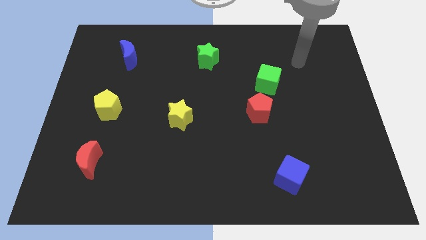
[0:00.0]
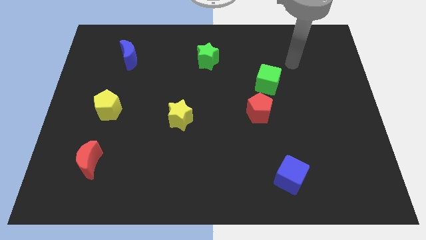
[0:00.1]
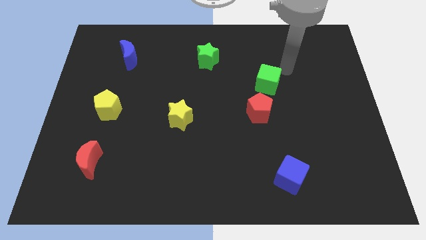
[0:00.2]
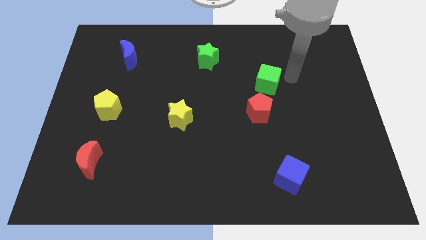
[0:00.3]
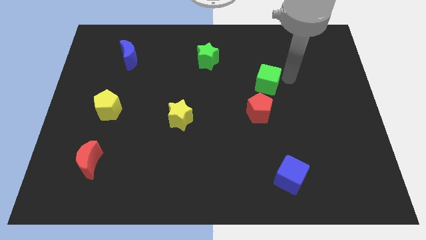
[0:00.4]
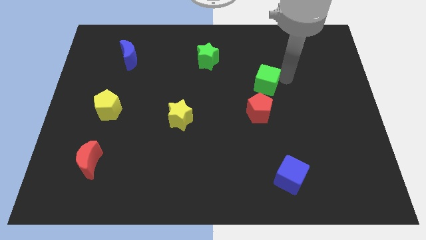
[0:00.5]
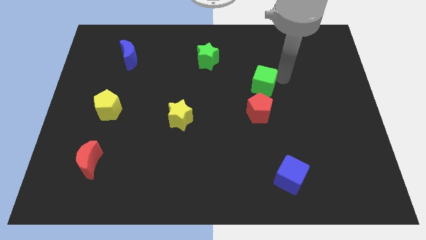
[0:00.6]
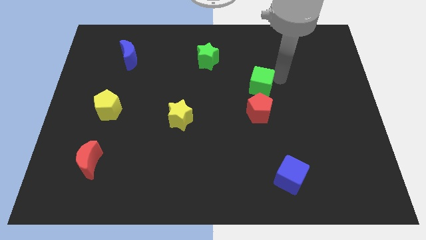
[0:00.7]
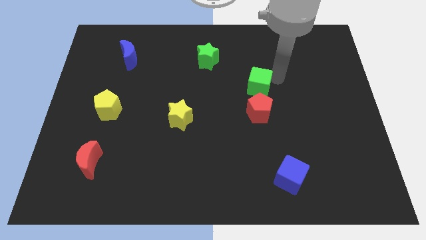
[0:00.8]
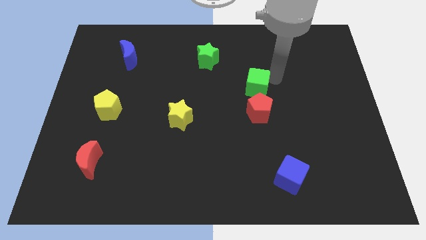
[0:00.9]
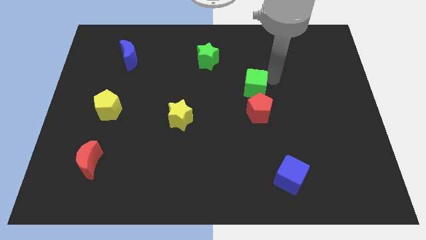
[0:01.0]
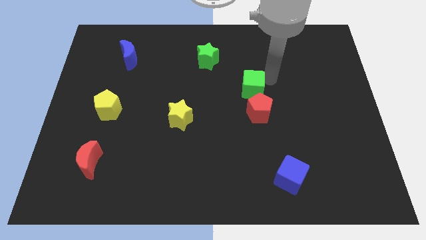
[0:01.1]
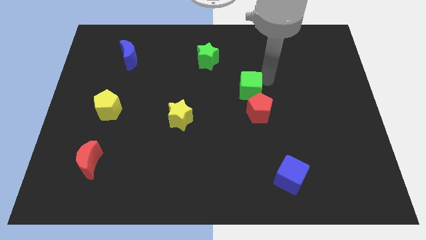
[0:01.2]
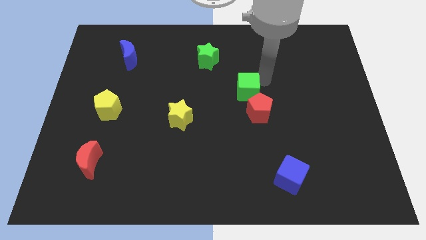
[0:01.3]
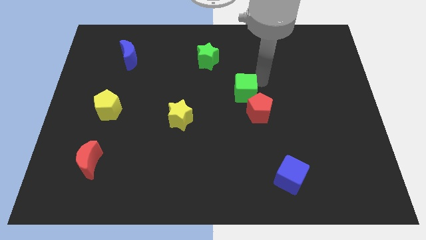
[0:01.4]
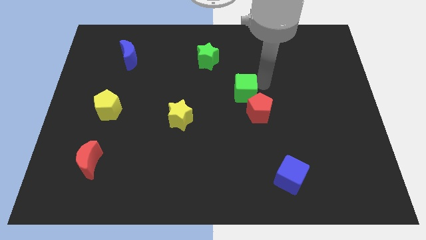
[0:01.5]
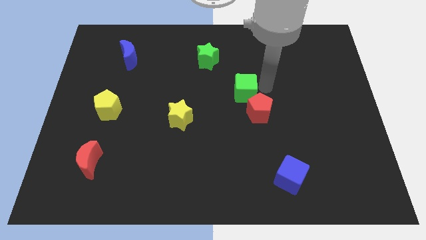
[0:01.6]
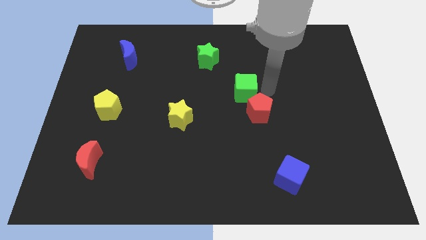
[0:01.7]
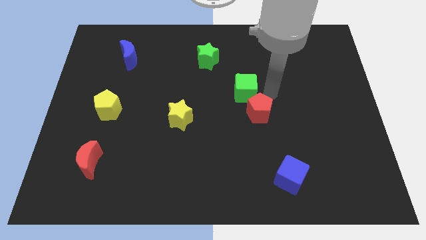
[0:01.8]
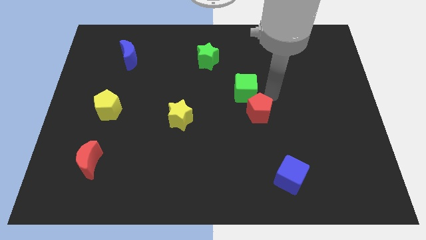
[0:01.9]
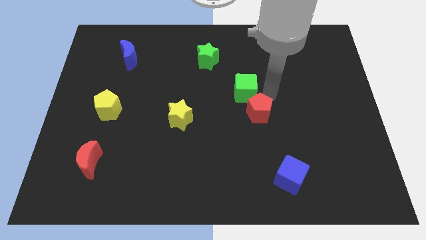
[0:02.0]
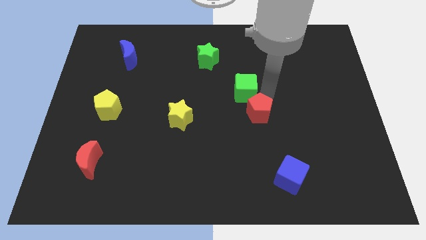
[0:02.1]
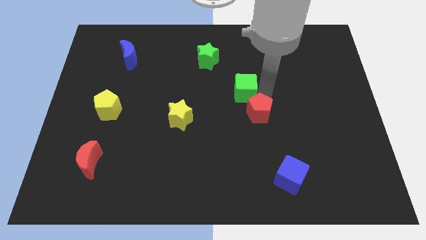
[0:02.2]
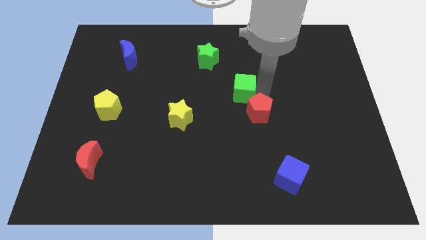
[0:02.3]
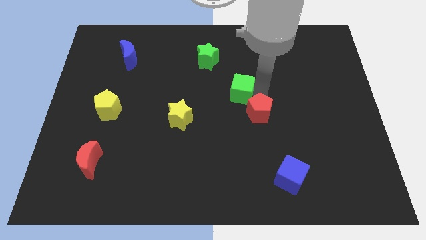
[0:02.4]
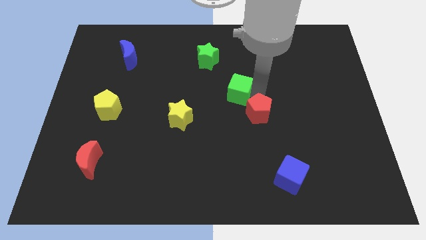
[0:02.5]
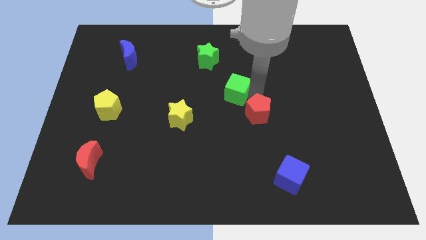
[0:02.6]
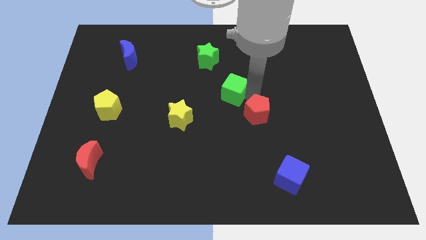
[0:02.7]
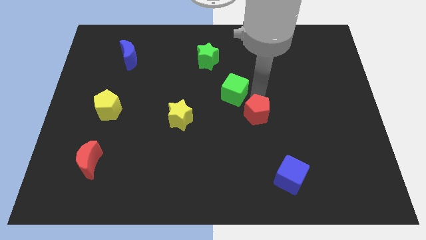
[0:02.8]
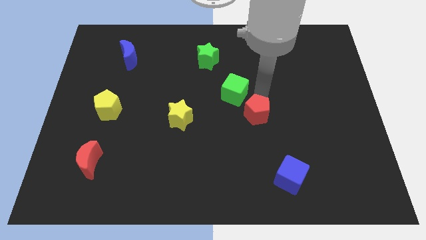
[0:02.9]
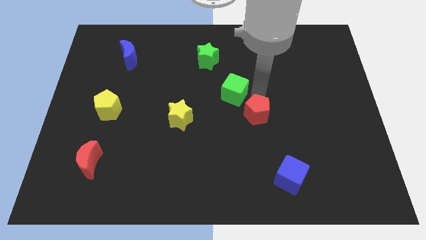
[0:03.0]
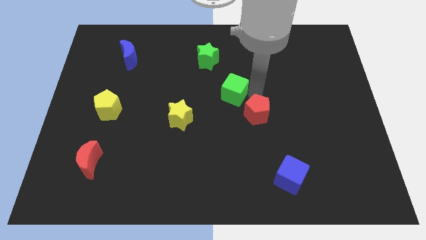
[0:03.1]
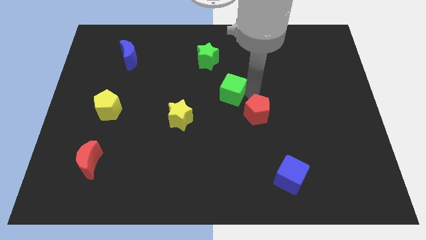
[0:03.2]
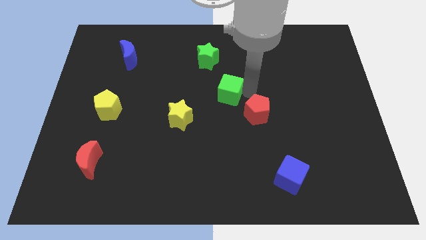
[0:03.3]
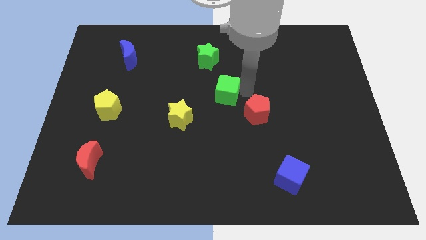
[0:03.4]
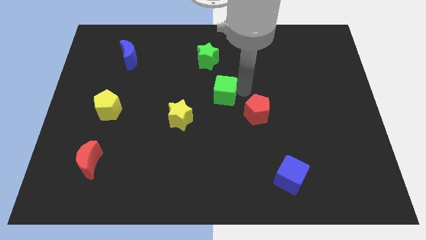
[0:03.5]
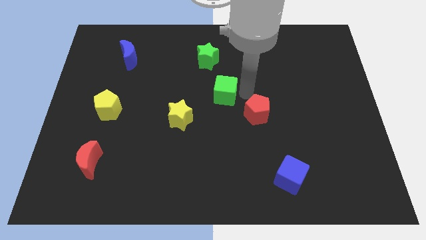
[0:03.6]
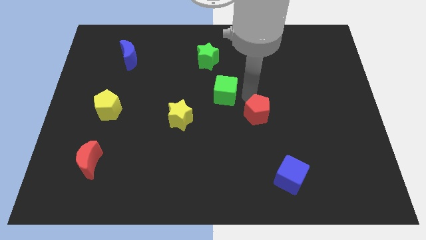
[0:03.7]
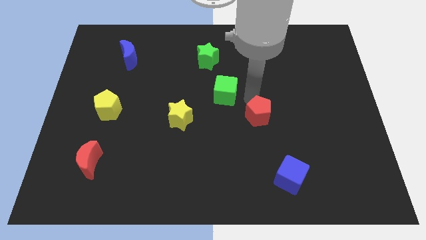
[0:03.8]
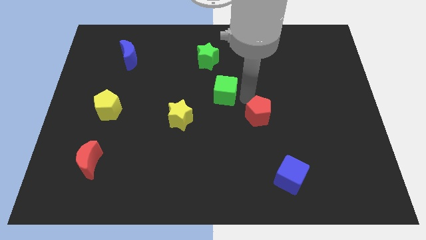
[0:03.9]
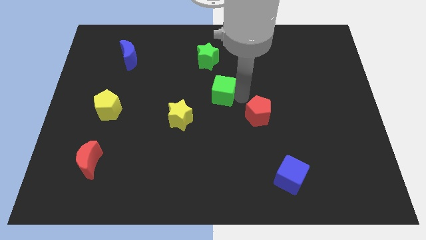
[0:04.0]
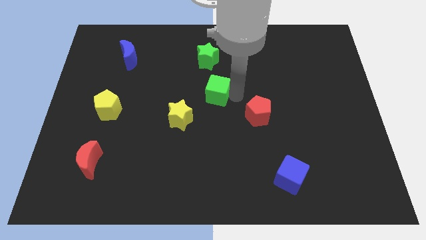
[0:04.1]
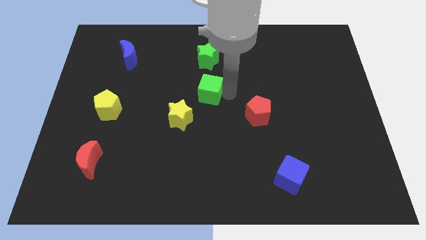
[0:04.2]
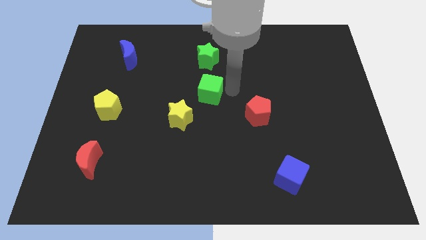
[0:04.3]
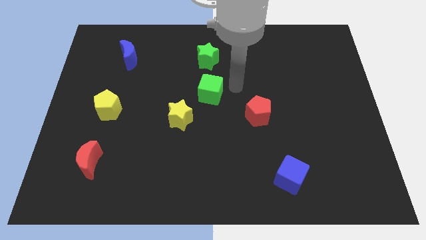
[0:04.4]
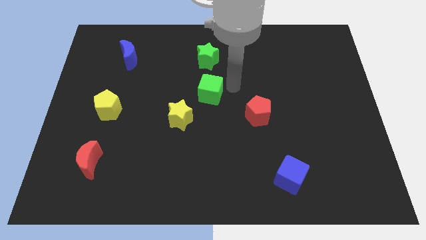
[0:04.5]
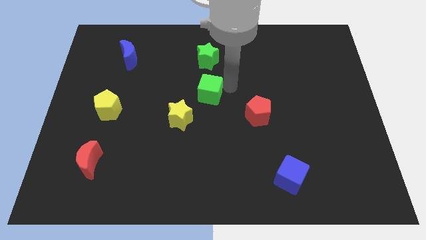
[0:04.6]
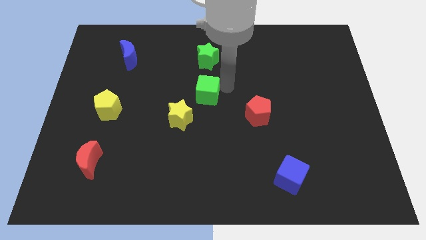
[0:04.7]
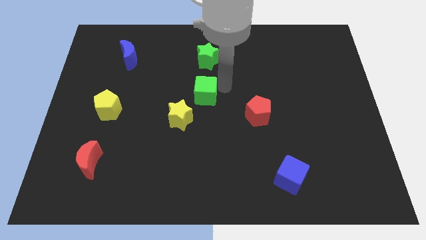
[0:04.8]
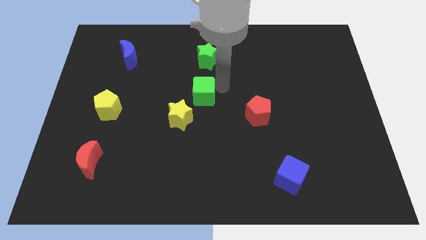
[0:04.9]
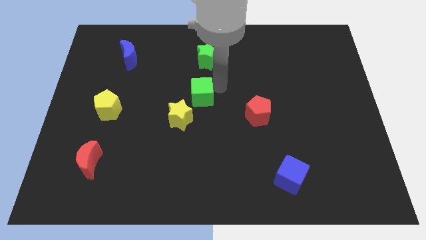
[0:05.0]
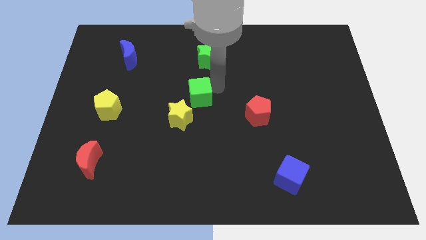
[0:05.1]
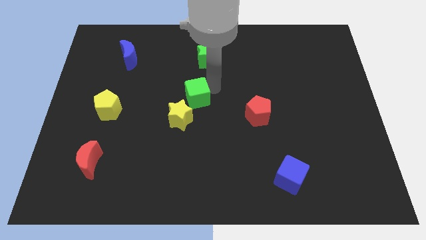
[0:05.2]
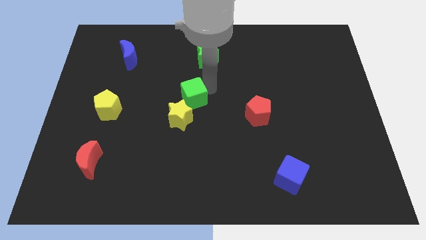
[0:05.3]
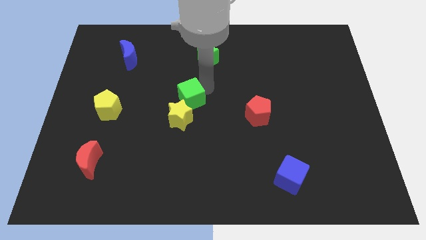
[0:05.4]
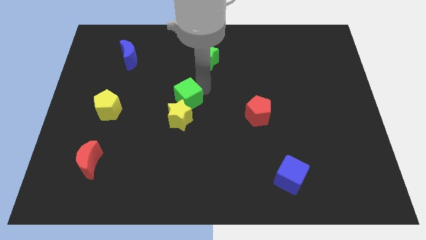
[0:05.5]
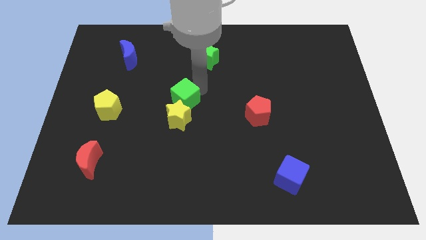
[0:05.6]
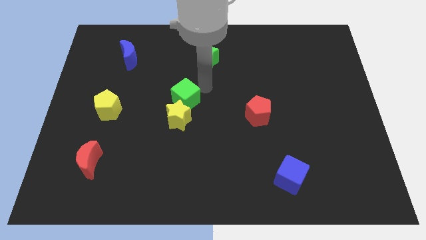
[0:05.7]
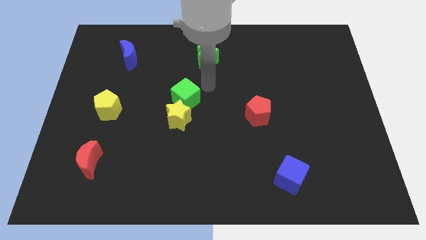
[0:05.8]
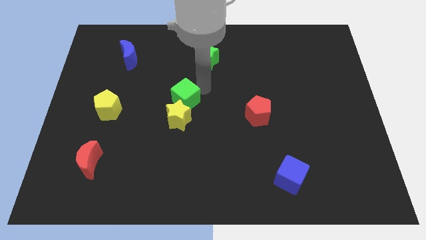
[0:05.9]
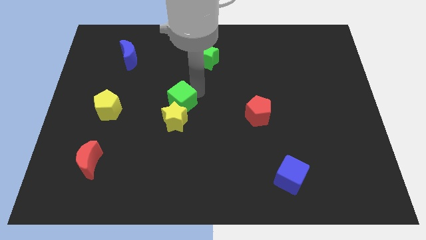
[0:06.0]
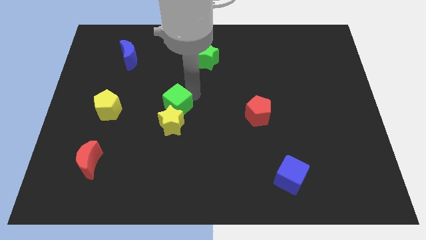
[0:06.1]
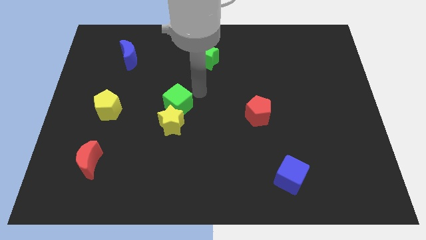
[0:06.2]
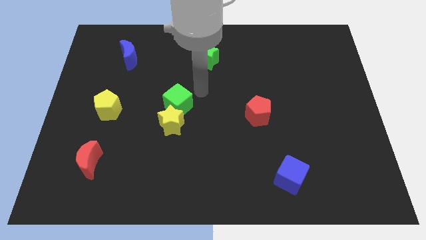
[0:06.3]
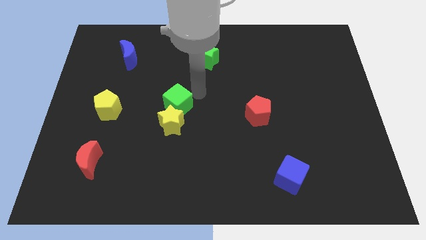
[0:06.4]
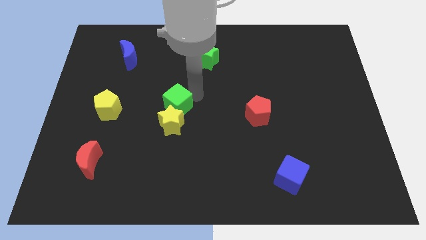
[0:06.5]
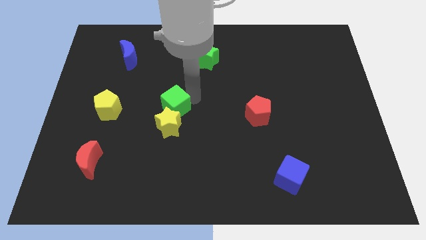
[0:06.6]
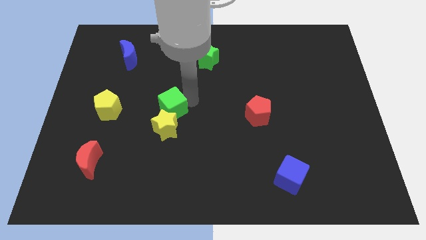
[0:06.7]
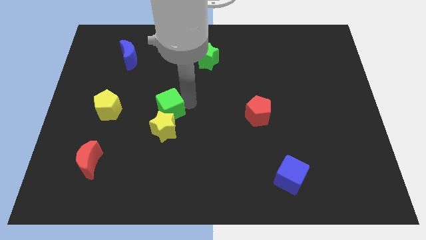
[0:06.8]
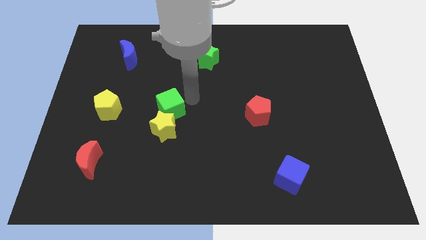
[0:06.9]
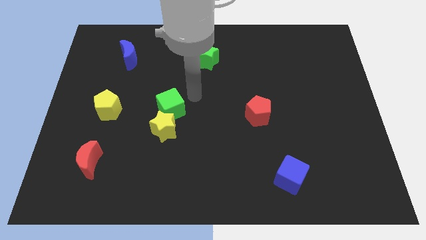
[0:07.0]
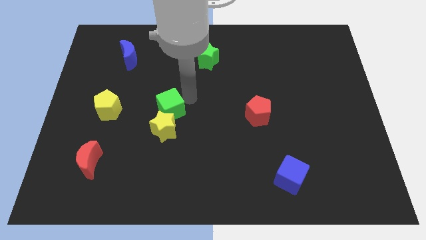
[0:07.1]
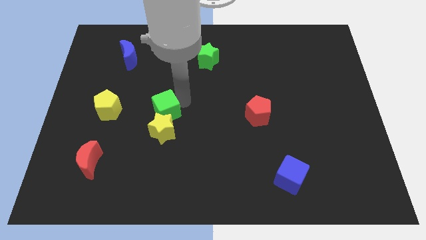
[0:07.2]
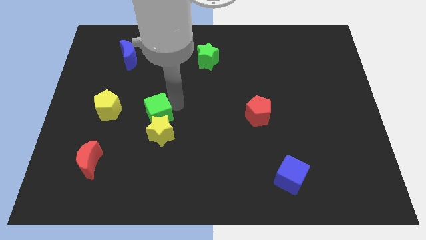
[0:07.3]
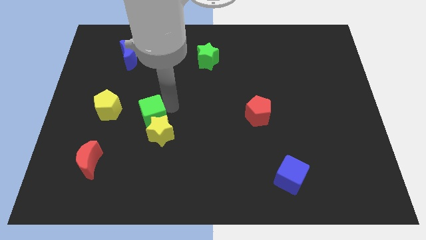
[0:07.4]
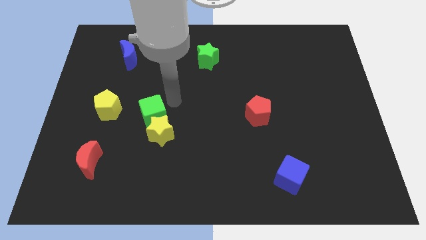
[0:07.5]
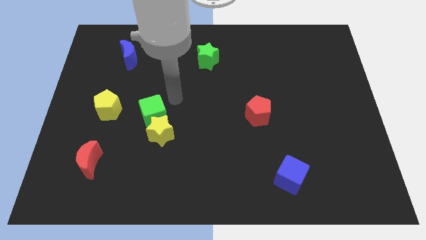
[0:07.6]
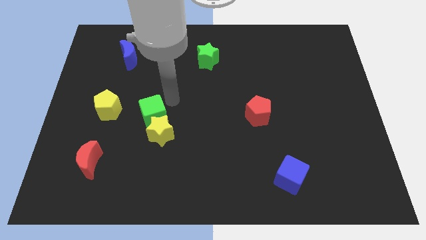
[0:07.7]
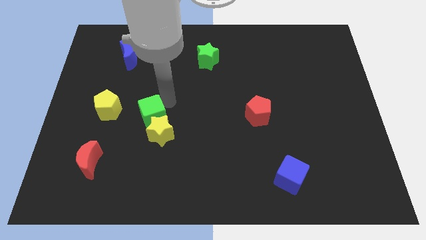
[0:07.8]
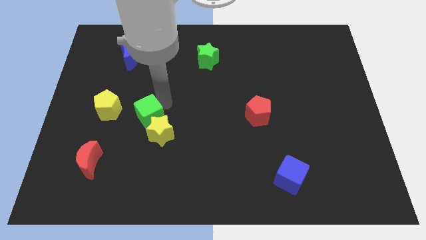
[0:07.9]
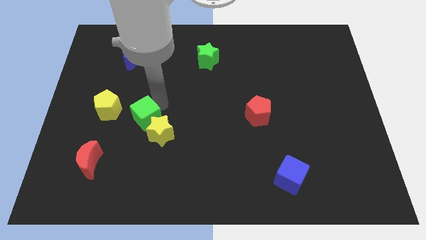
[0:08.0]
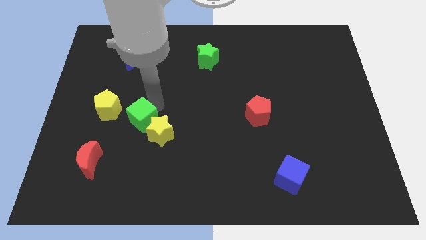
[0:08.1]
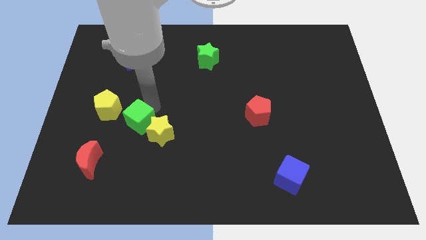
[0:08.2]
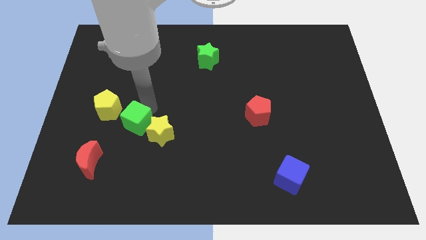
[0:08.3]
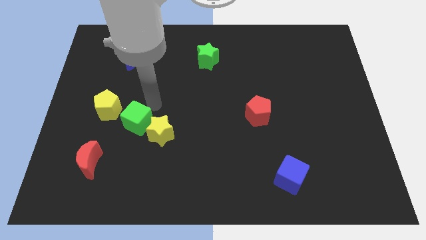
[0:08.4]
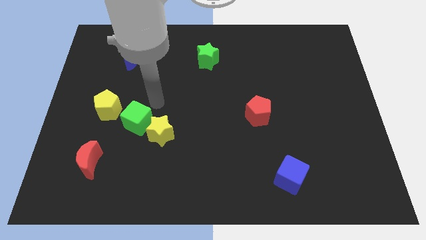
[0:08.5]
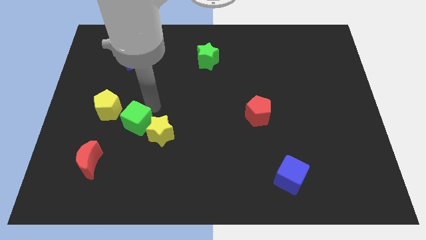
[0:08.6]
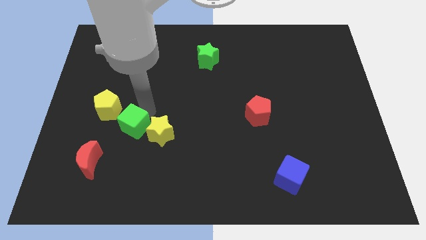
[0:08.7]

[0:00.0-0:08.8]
push the green cube to the top right of the red moon
